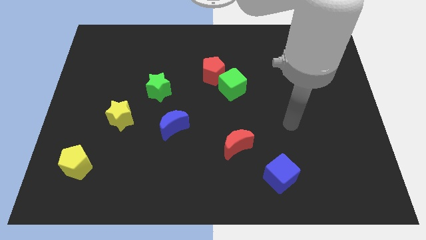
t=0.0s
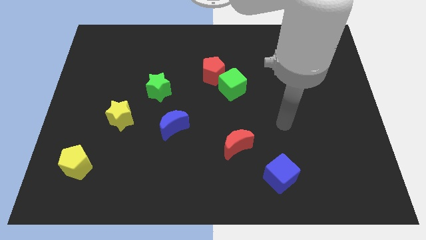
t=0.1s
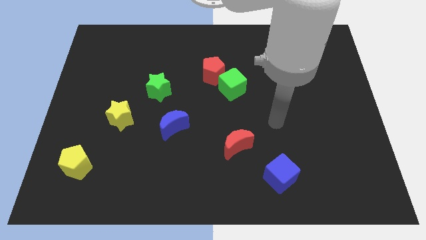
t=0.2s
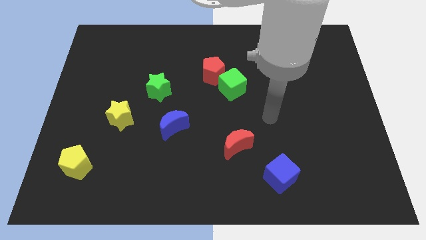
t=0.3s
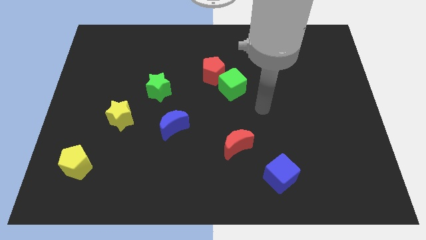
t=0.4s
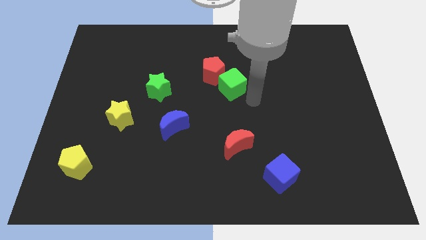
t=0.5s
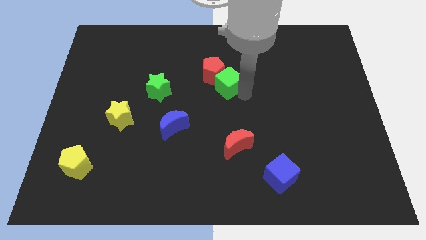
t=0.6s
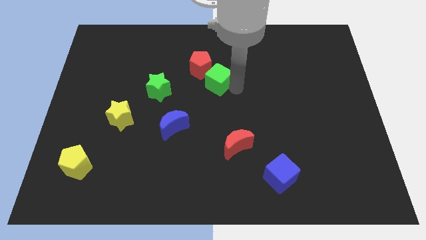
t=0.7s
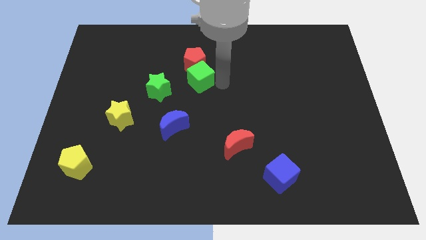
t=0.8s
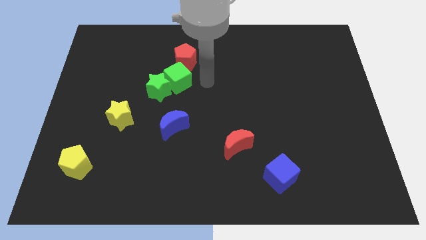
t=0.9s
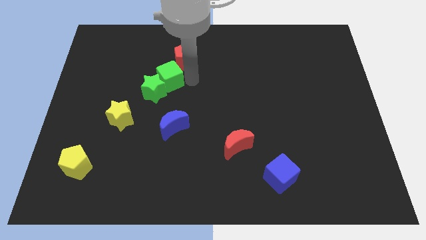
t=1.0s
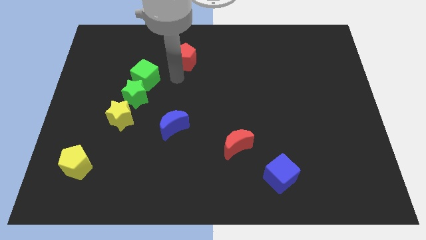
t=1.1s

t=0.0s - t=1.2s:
pull the red pentagon apart from the green cube

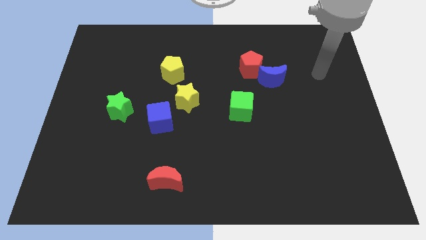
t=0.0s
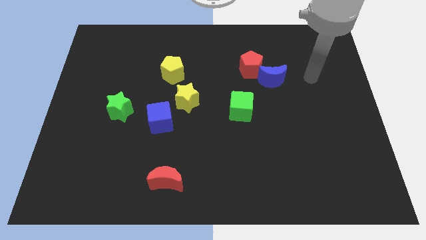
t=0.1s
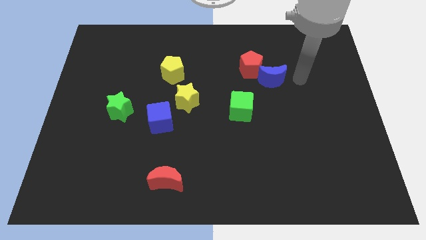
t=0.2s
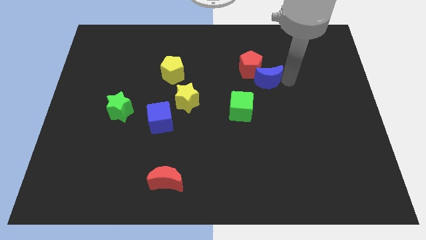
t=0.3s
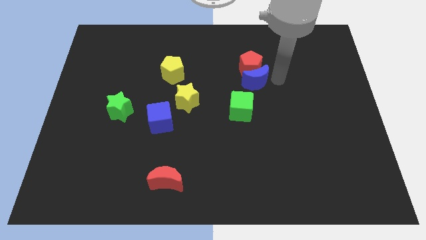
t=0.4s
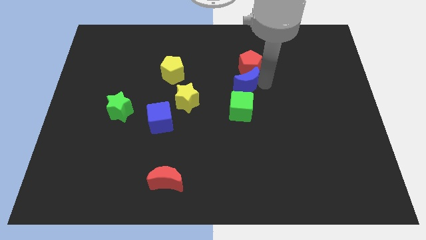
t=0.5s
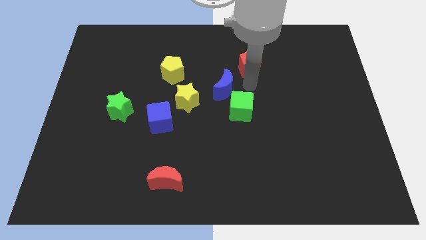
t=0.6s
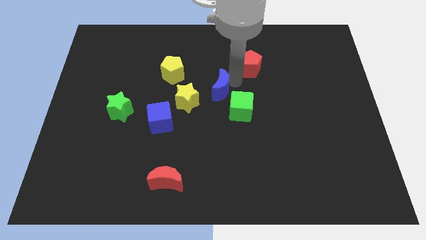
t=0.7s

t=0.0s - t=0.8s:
separate the red pentagon from the blue moon

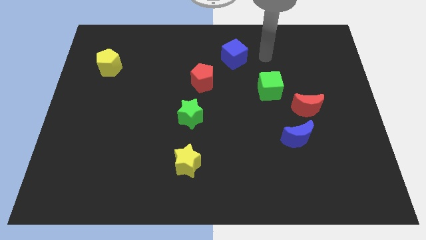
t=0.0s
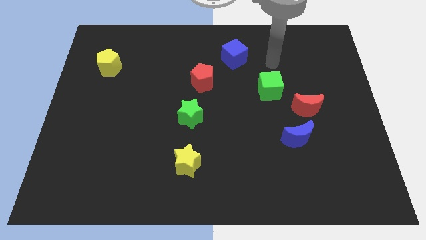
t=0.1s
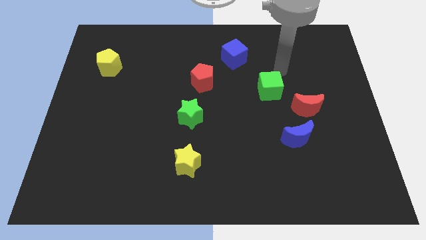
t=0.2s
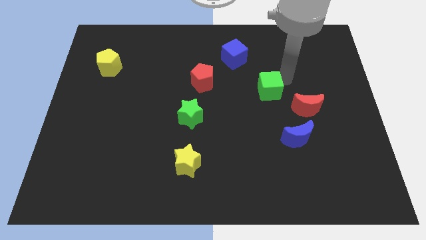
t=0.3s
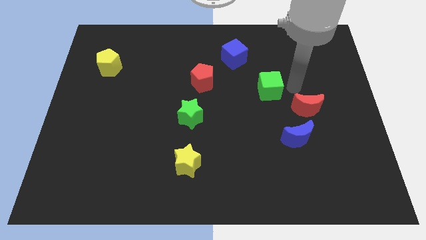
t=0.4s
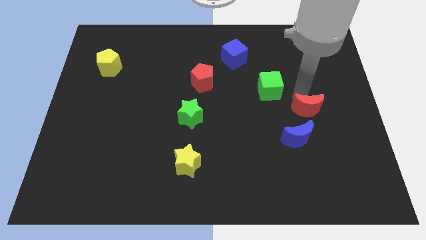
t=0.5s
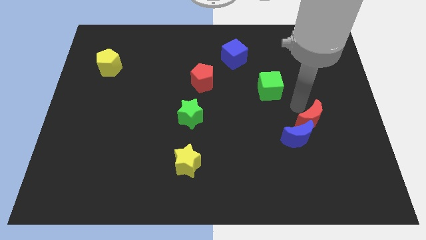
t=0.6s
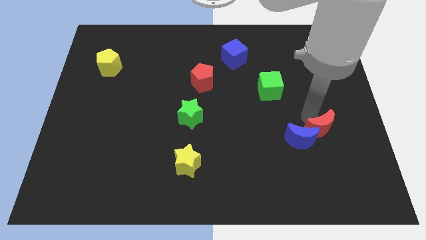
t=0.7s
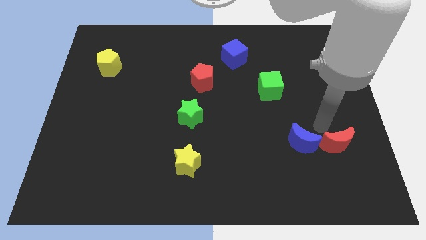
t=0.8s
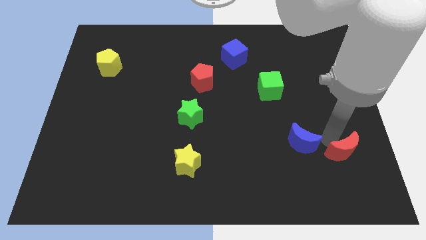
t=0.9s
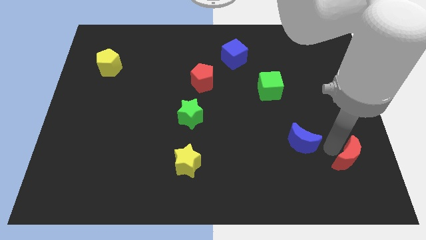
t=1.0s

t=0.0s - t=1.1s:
pull the blue moon apart from the red moon

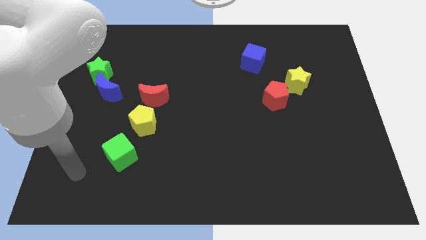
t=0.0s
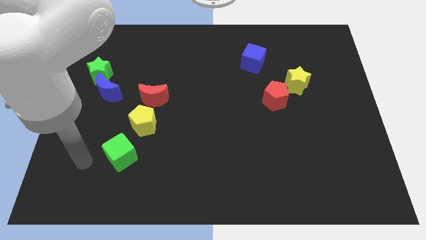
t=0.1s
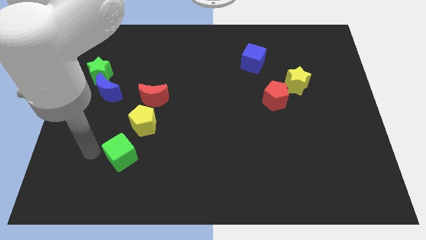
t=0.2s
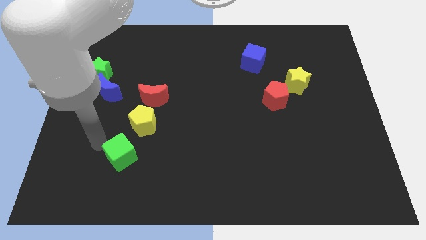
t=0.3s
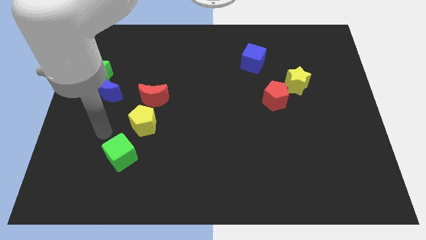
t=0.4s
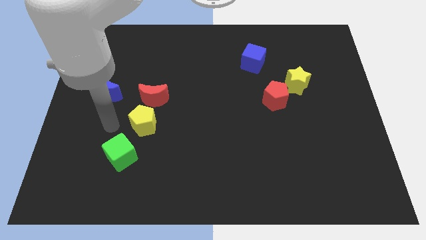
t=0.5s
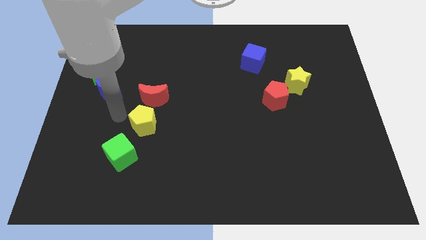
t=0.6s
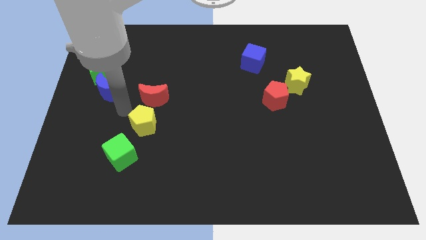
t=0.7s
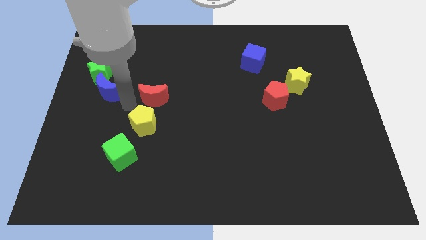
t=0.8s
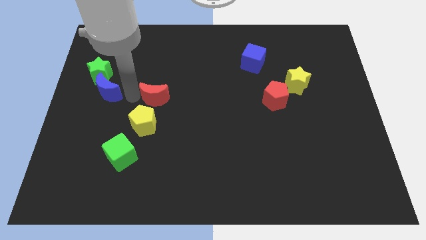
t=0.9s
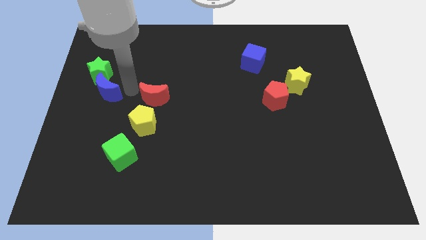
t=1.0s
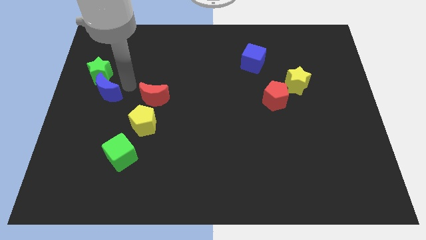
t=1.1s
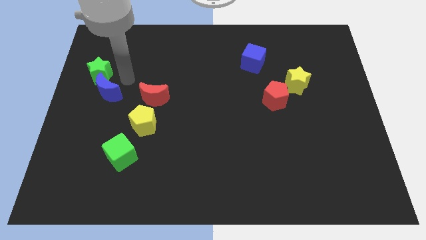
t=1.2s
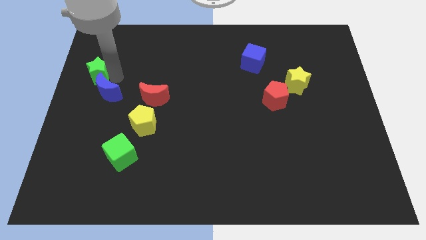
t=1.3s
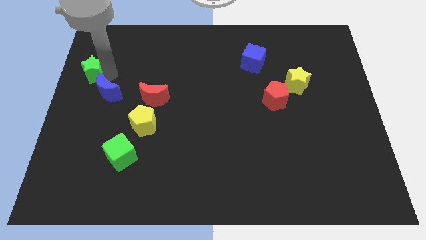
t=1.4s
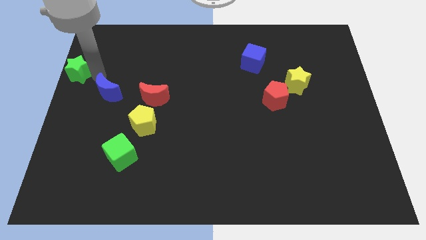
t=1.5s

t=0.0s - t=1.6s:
separate the blue moon from the green star

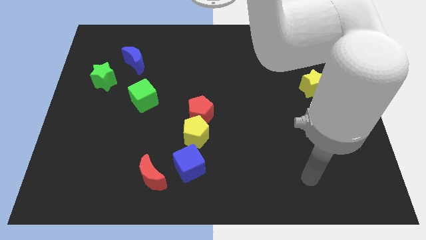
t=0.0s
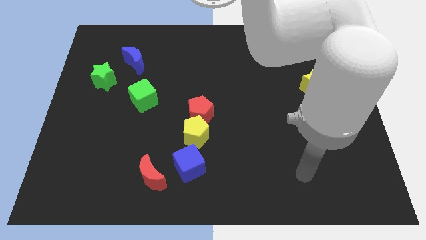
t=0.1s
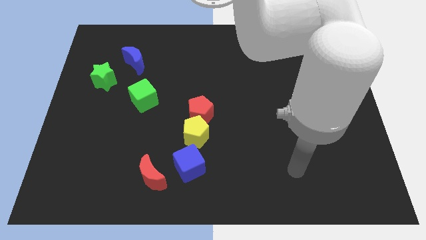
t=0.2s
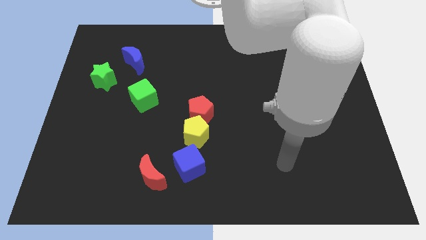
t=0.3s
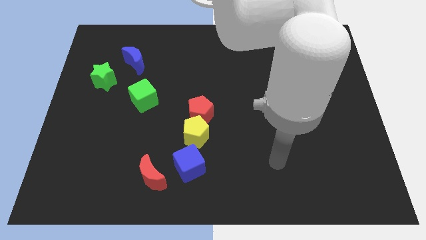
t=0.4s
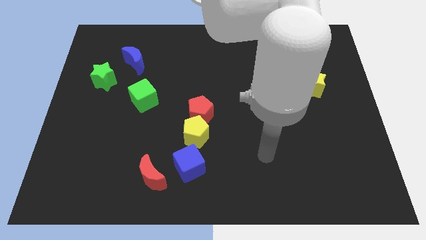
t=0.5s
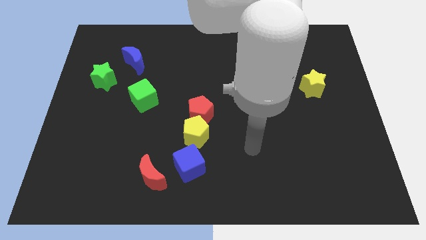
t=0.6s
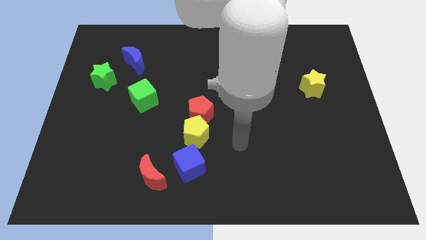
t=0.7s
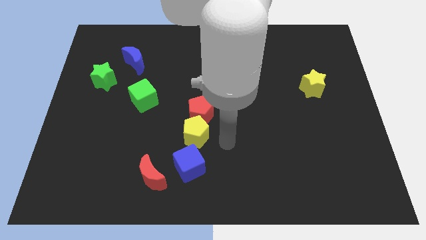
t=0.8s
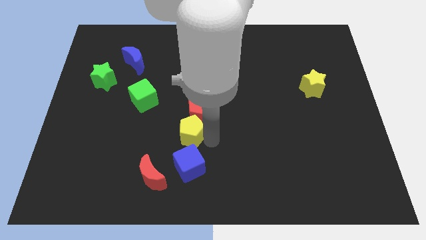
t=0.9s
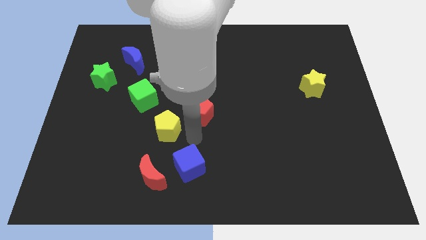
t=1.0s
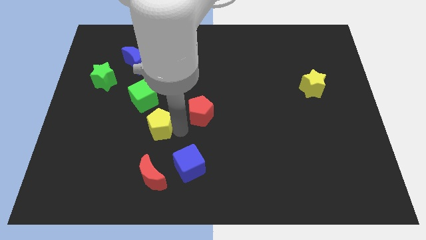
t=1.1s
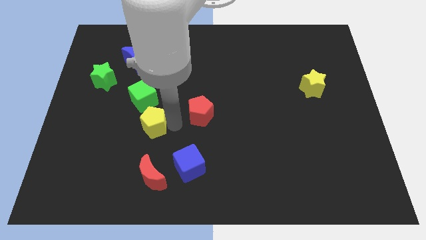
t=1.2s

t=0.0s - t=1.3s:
move the red pentagon away from the yellow pentagon

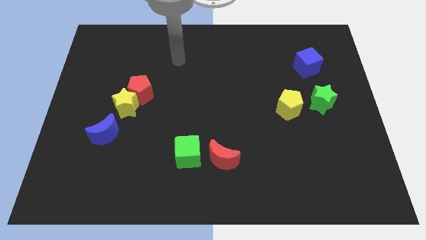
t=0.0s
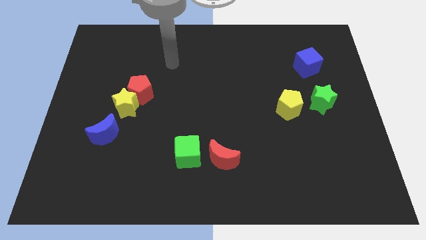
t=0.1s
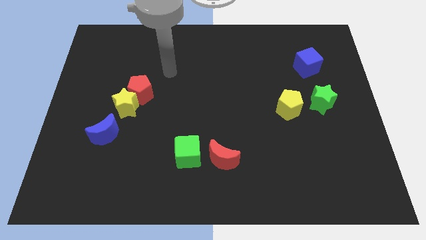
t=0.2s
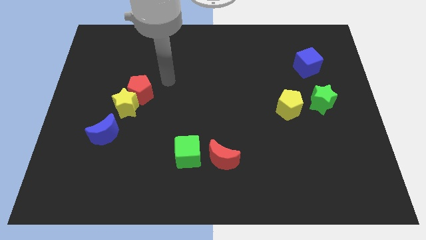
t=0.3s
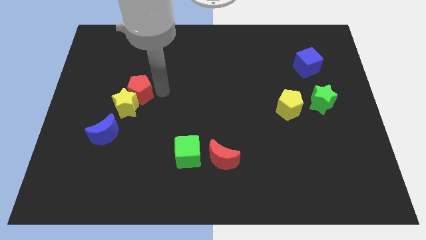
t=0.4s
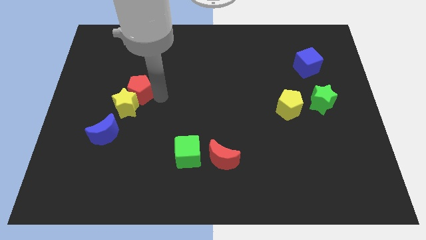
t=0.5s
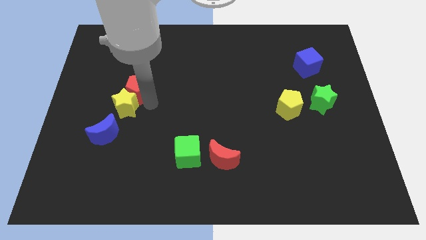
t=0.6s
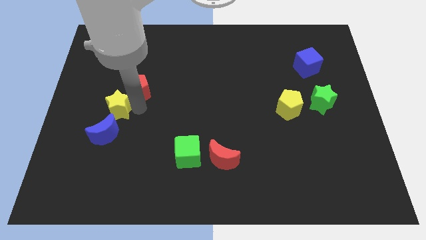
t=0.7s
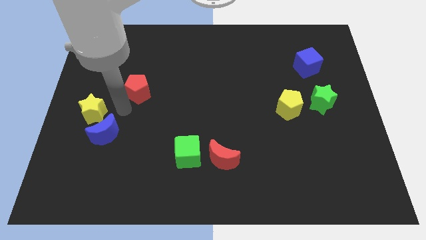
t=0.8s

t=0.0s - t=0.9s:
separate the red pentagon from the yellow star

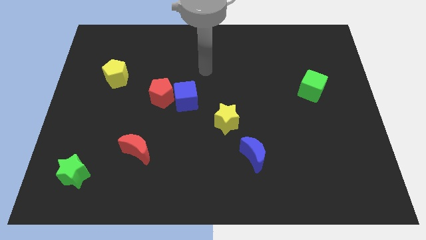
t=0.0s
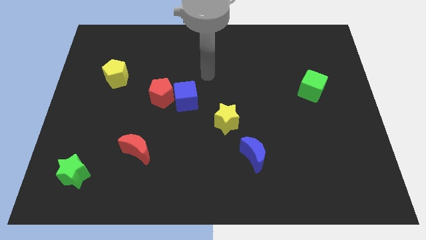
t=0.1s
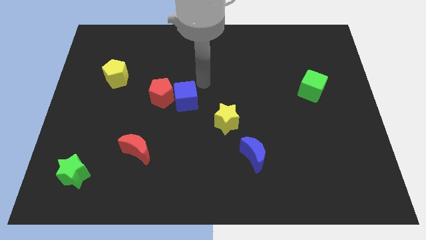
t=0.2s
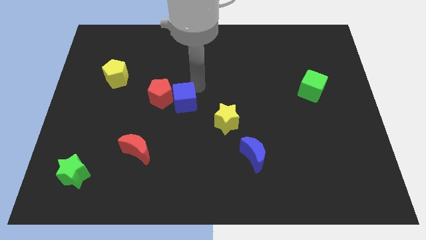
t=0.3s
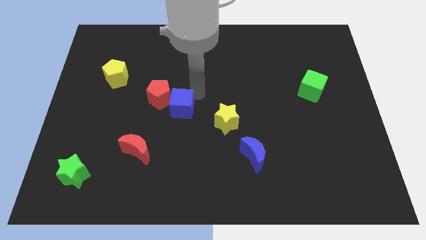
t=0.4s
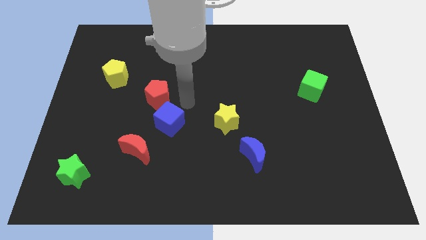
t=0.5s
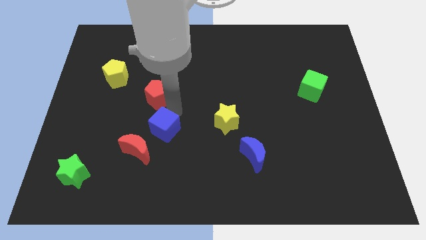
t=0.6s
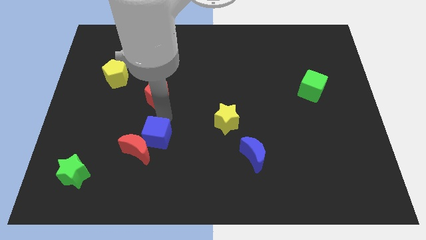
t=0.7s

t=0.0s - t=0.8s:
separate the red pentagon from the blue cube

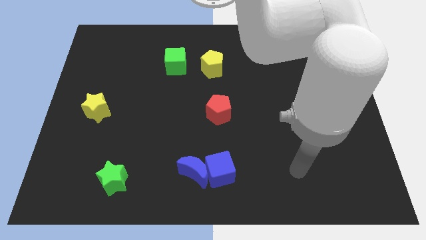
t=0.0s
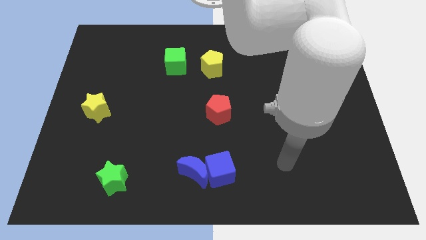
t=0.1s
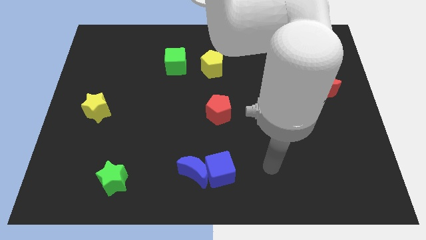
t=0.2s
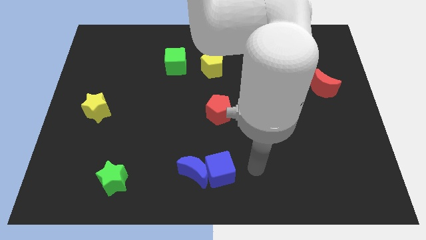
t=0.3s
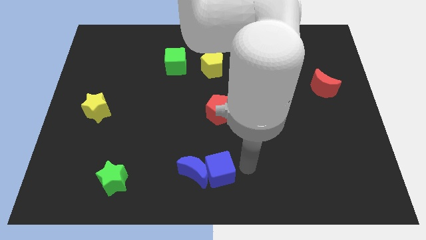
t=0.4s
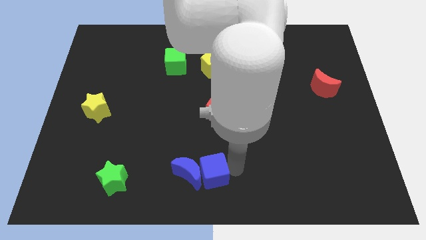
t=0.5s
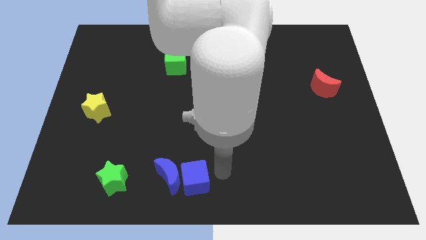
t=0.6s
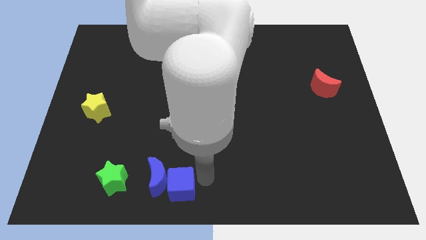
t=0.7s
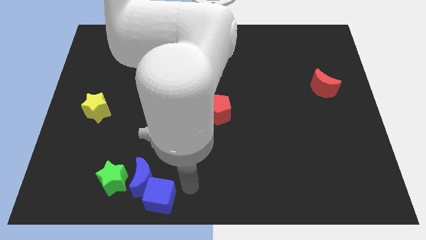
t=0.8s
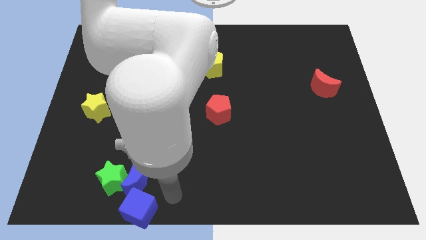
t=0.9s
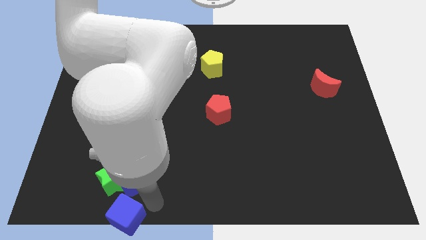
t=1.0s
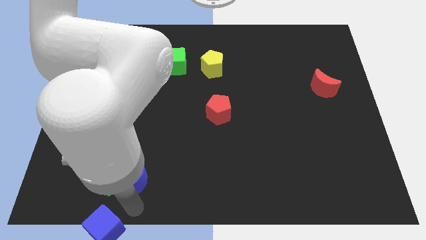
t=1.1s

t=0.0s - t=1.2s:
pull the blue moon apart from the blue cube

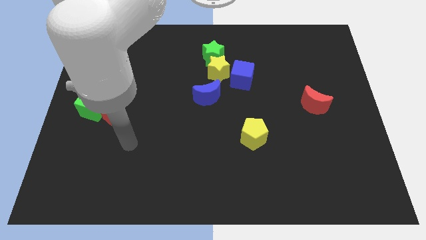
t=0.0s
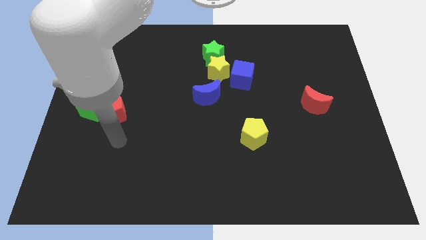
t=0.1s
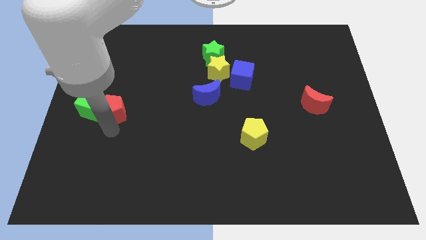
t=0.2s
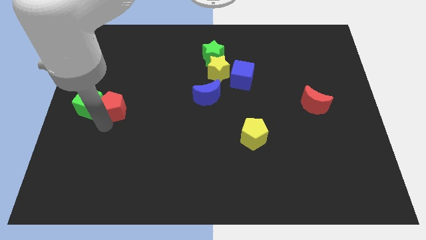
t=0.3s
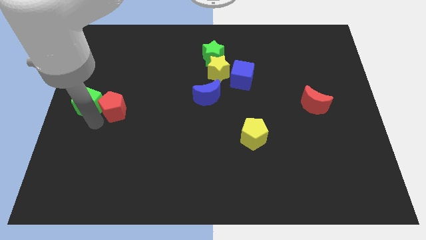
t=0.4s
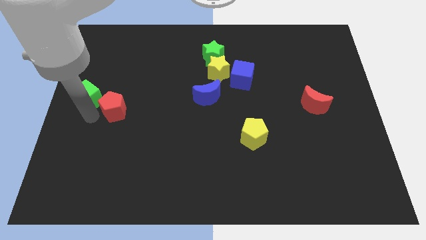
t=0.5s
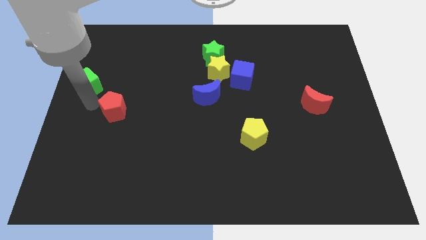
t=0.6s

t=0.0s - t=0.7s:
move the red pentagon away from the green cube
